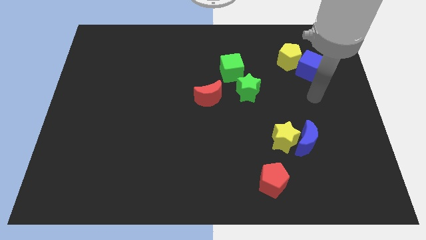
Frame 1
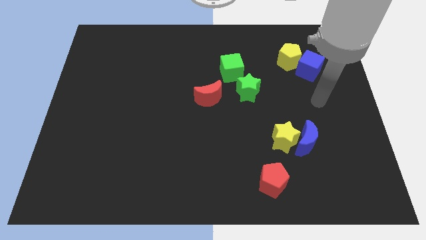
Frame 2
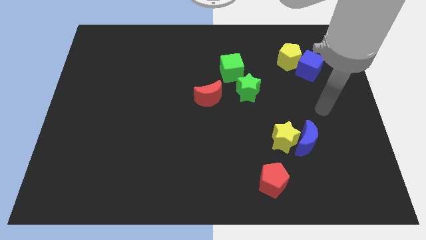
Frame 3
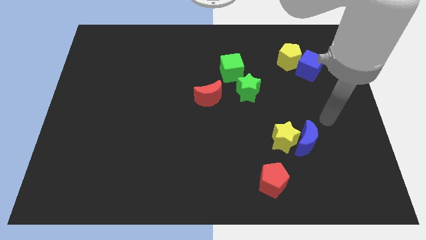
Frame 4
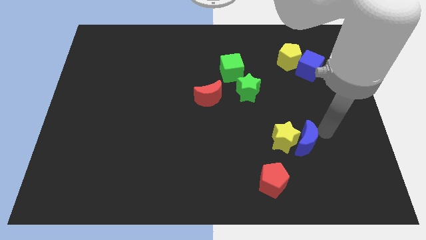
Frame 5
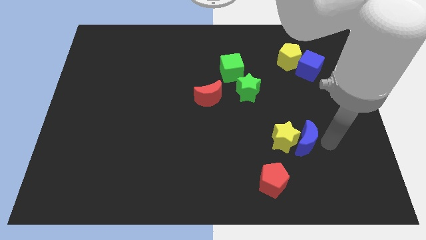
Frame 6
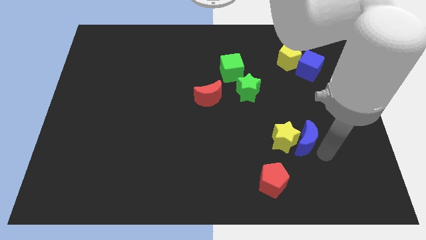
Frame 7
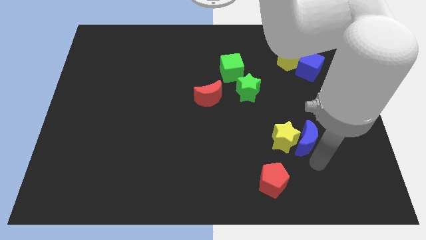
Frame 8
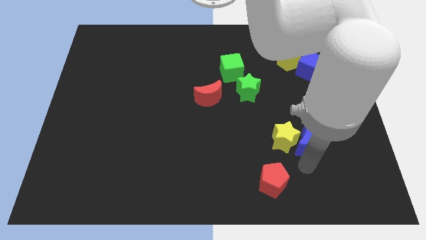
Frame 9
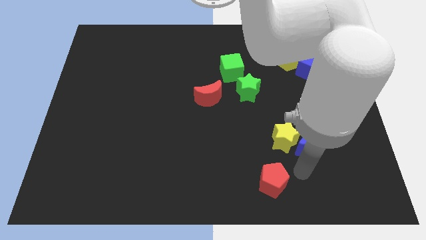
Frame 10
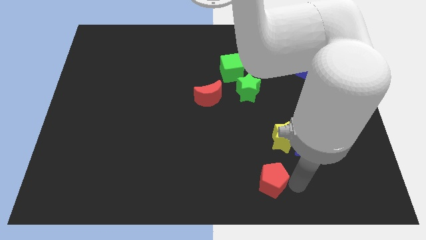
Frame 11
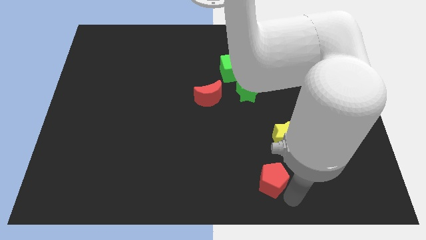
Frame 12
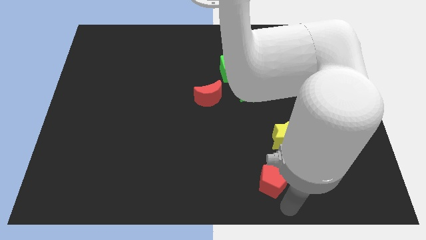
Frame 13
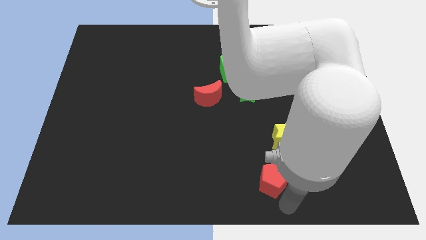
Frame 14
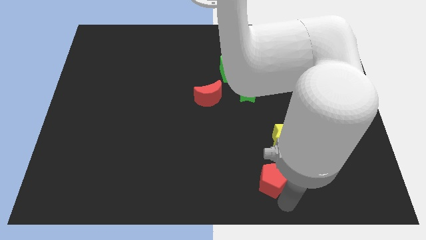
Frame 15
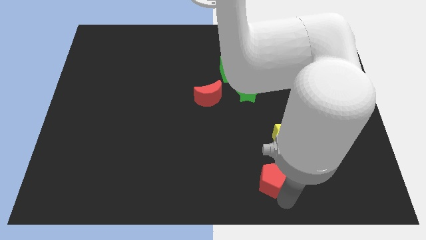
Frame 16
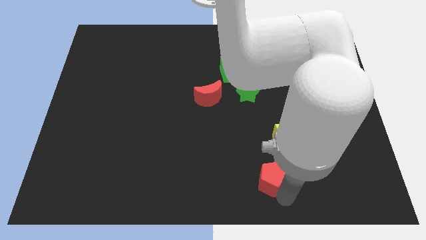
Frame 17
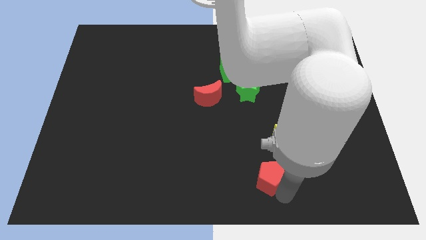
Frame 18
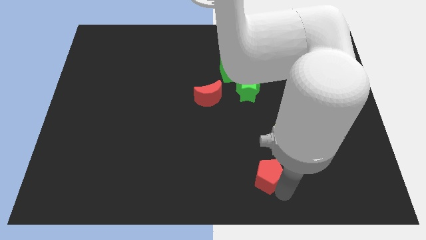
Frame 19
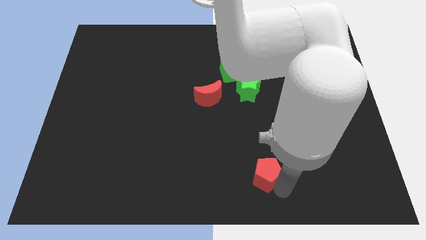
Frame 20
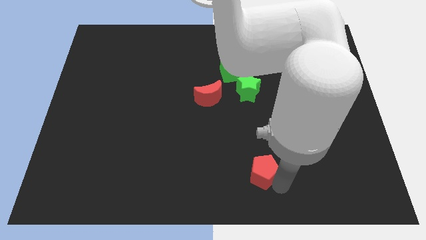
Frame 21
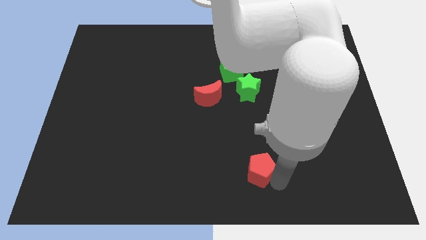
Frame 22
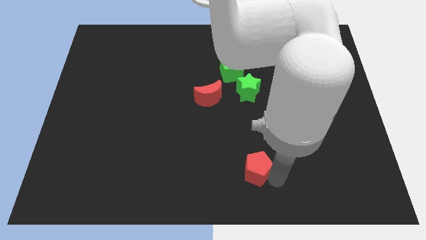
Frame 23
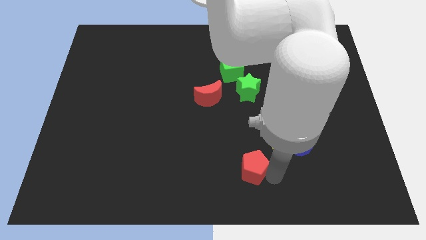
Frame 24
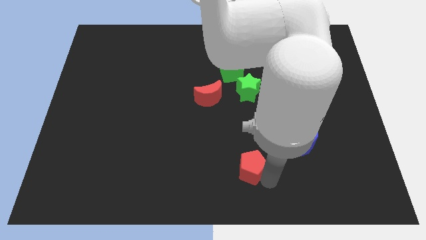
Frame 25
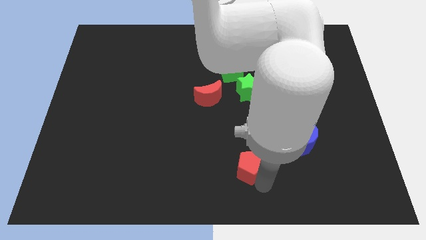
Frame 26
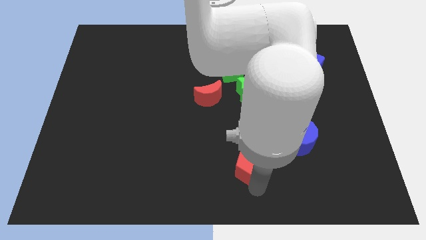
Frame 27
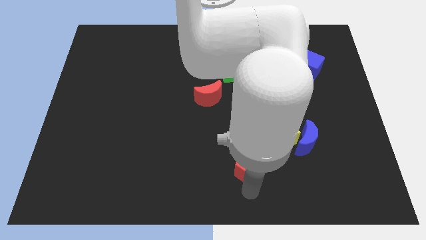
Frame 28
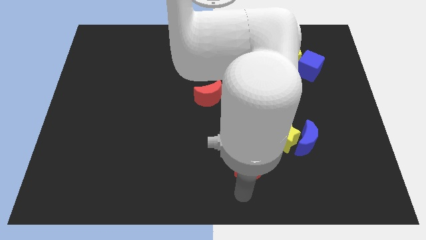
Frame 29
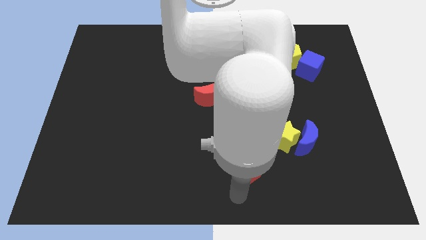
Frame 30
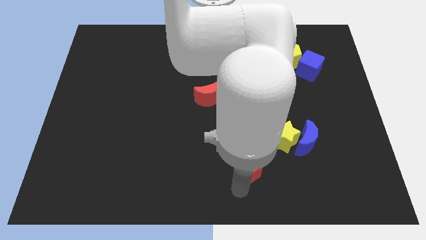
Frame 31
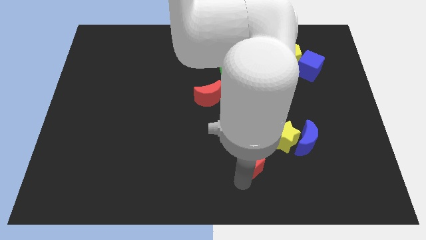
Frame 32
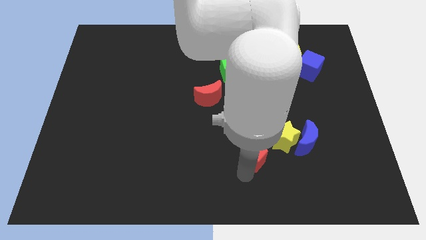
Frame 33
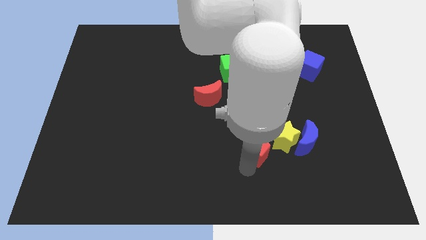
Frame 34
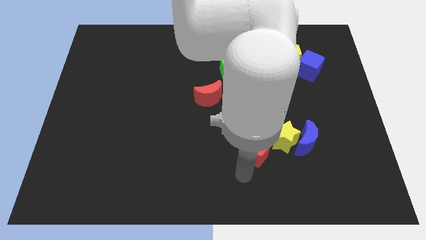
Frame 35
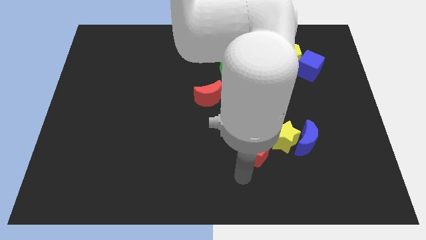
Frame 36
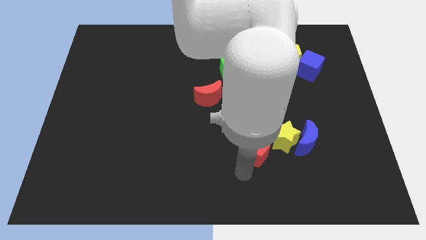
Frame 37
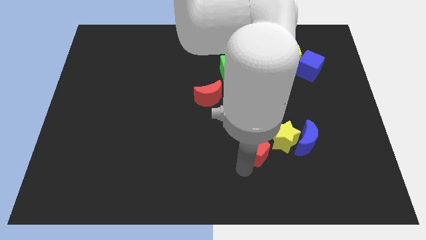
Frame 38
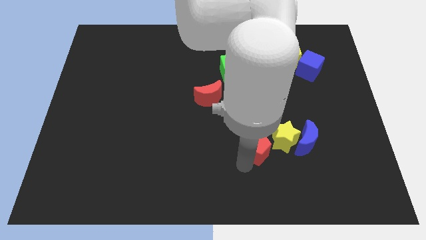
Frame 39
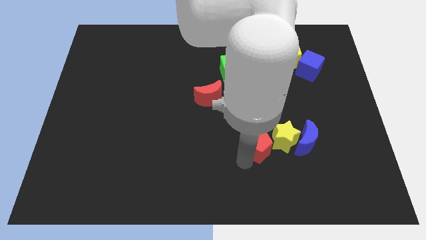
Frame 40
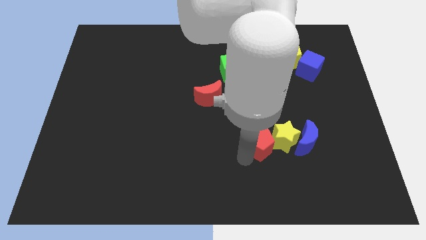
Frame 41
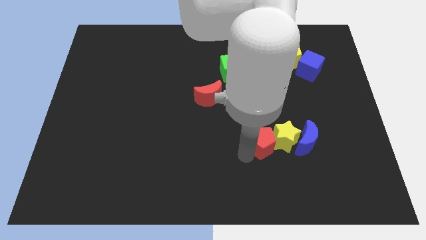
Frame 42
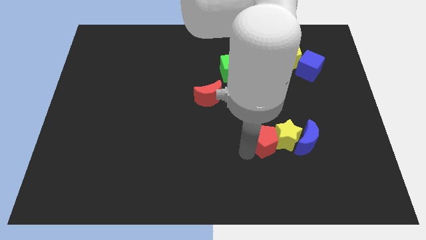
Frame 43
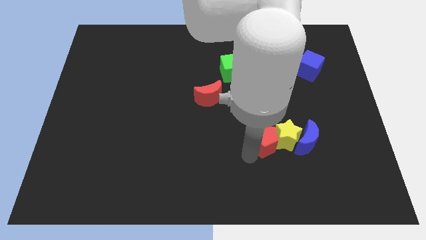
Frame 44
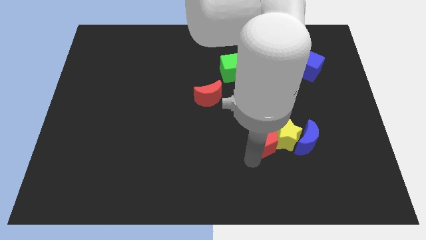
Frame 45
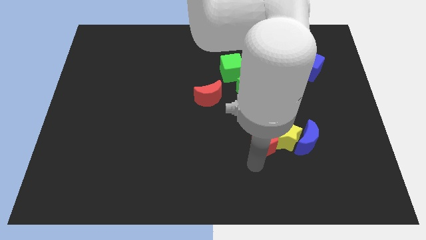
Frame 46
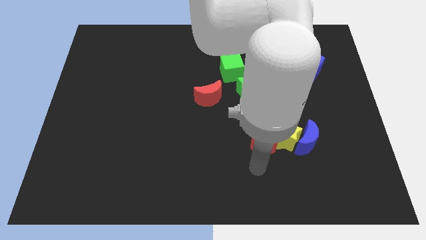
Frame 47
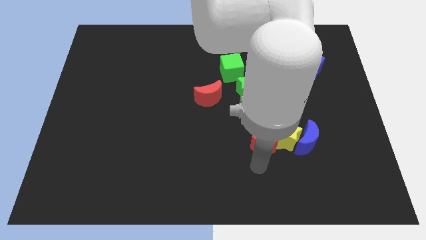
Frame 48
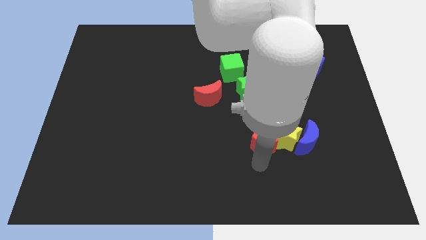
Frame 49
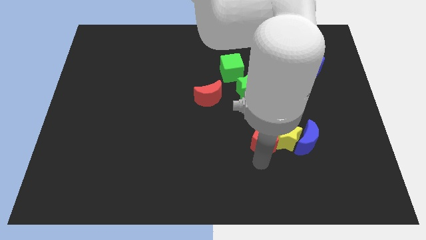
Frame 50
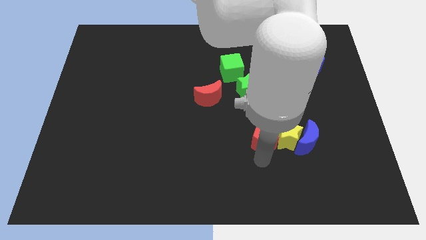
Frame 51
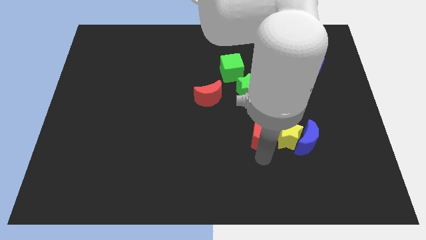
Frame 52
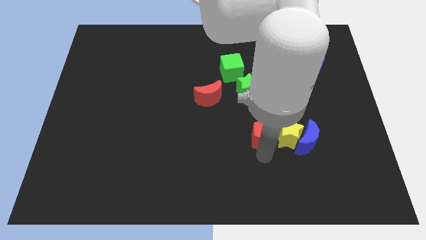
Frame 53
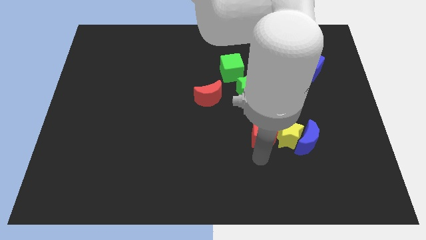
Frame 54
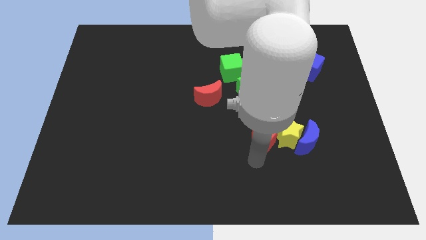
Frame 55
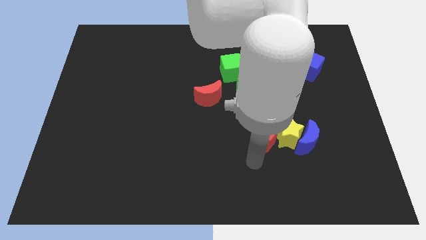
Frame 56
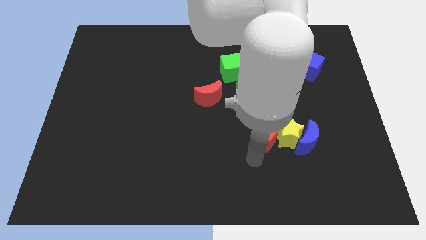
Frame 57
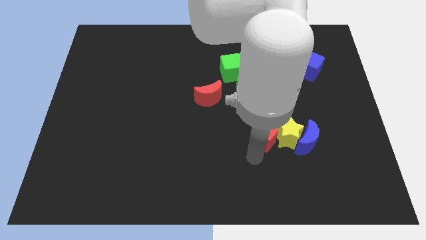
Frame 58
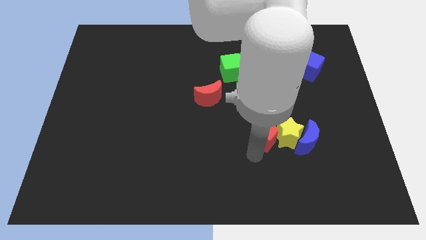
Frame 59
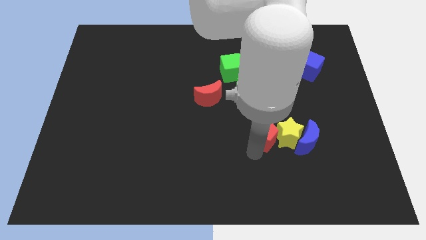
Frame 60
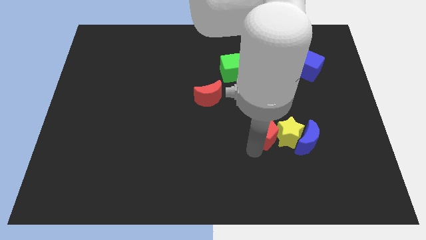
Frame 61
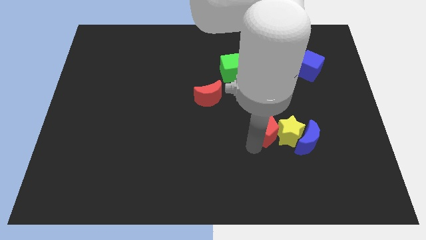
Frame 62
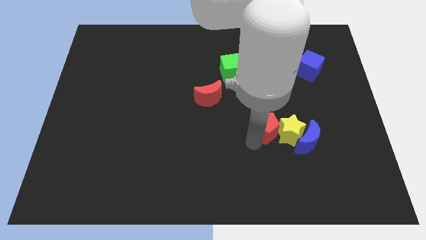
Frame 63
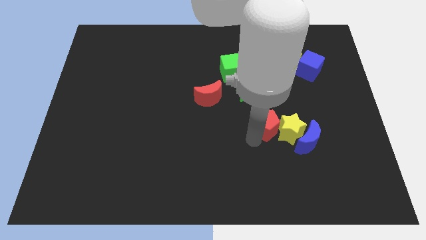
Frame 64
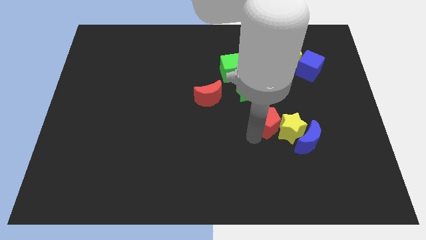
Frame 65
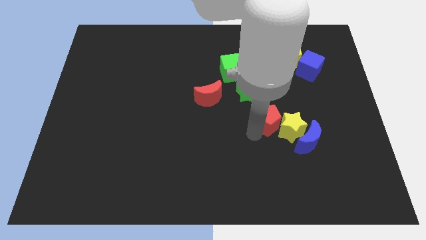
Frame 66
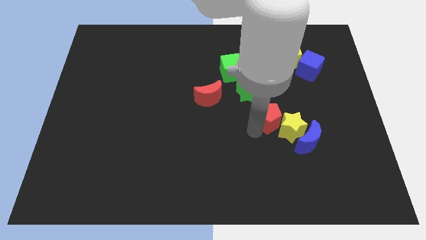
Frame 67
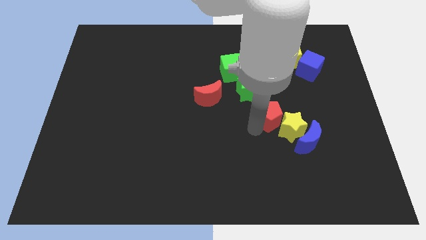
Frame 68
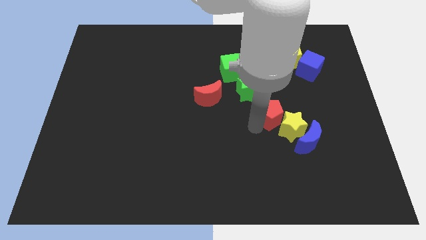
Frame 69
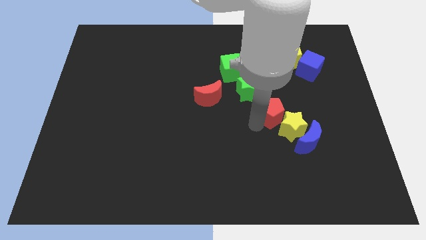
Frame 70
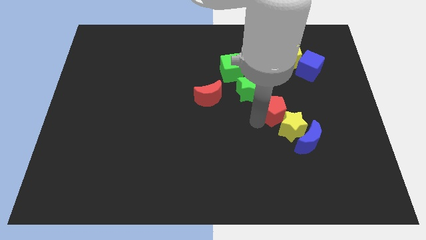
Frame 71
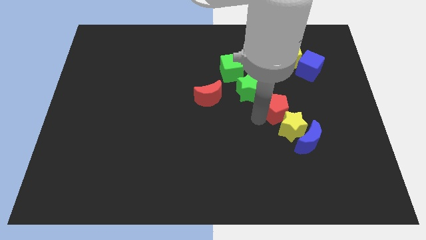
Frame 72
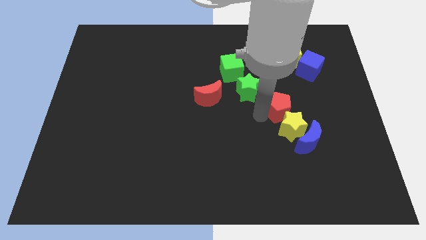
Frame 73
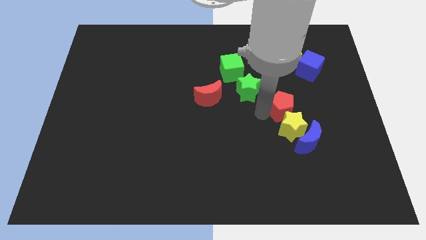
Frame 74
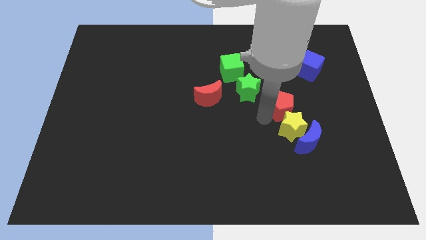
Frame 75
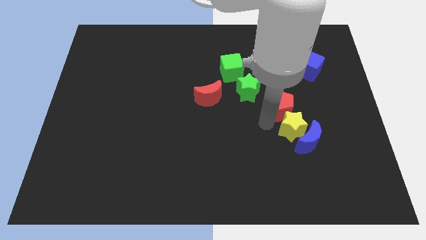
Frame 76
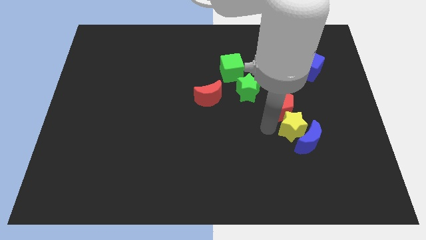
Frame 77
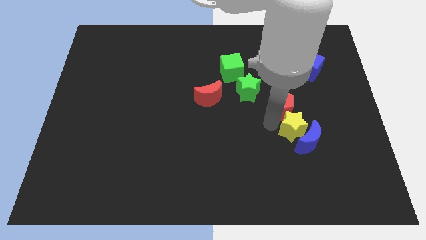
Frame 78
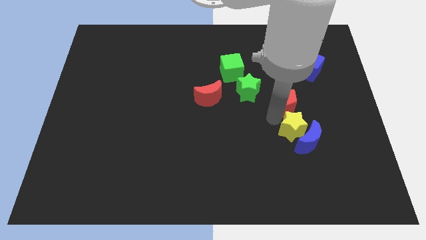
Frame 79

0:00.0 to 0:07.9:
push the red pentagon right of the green star
